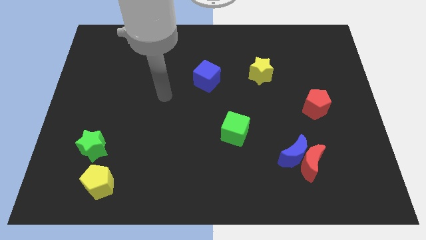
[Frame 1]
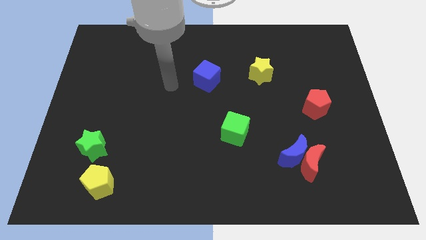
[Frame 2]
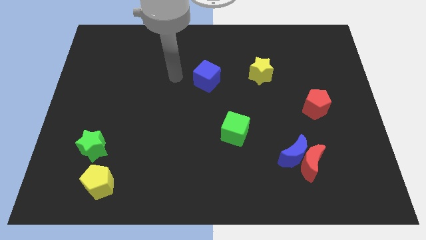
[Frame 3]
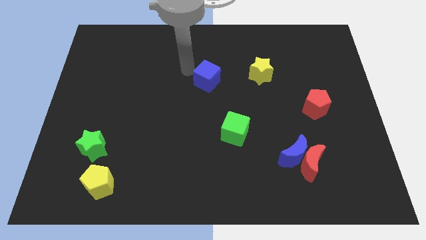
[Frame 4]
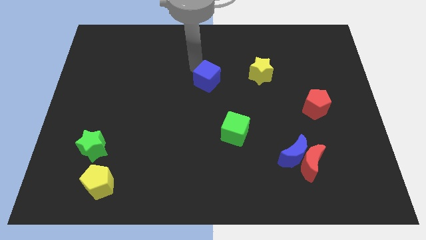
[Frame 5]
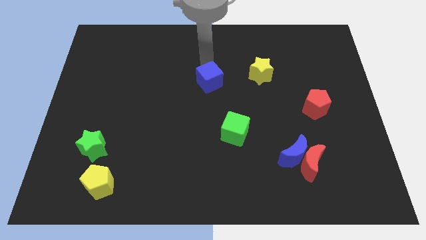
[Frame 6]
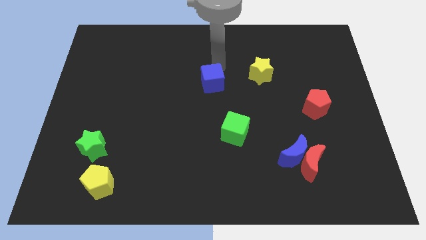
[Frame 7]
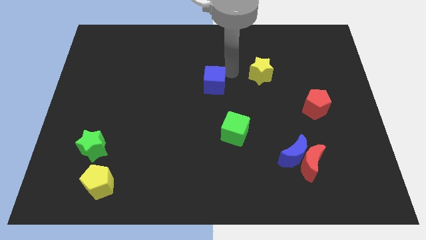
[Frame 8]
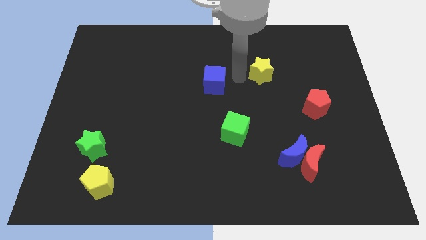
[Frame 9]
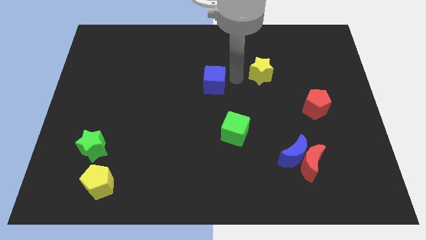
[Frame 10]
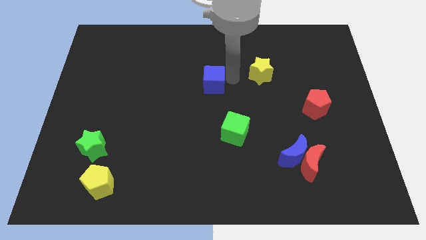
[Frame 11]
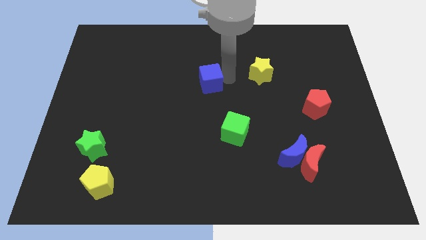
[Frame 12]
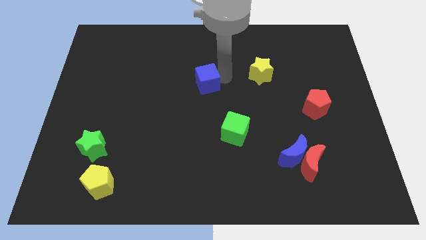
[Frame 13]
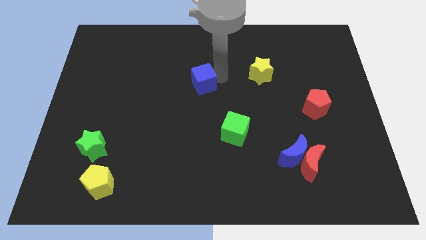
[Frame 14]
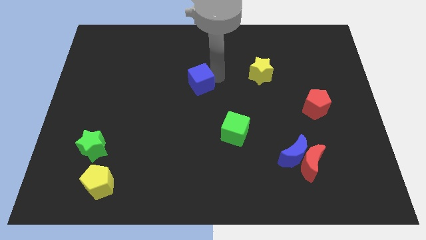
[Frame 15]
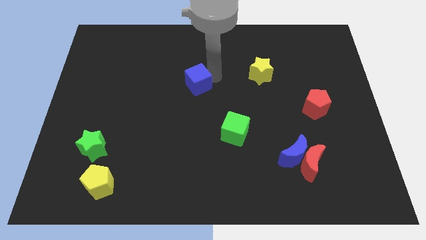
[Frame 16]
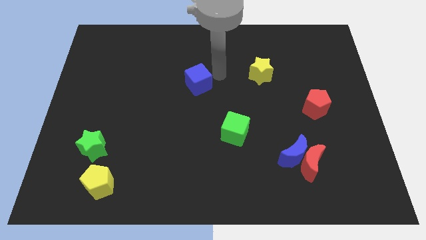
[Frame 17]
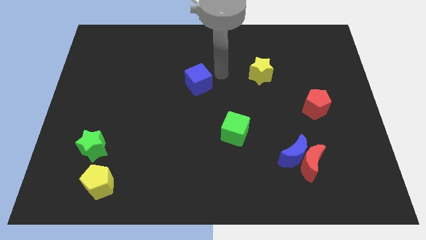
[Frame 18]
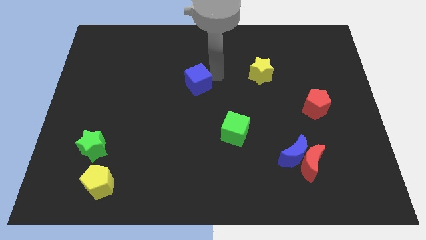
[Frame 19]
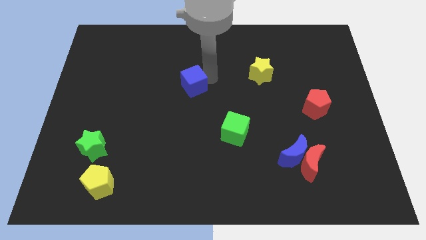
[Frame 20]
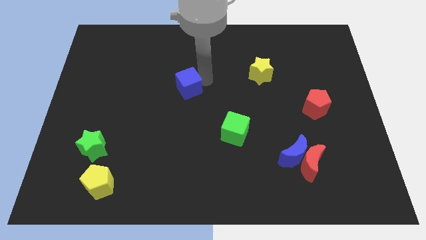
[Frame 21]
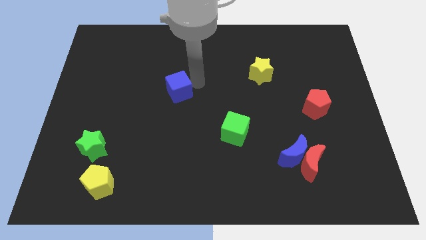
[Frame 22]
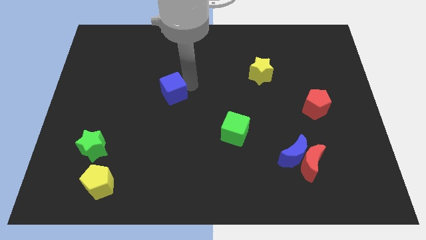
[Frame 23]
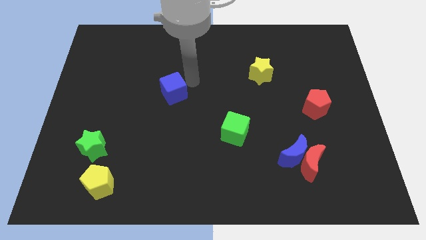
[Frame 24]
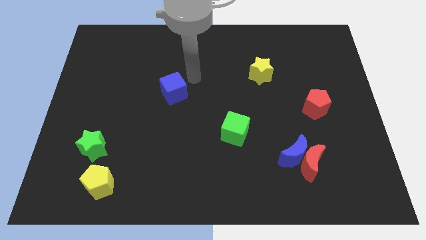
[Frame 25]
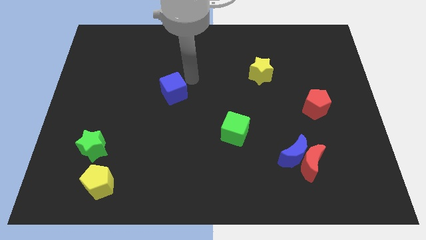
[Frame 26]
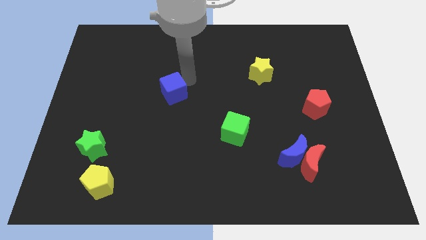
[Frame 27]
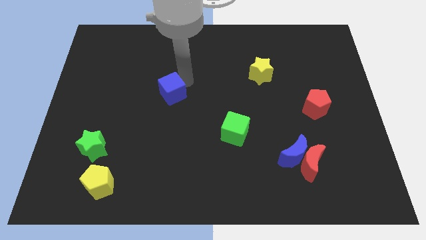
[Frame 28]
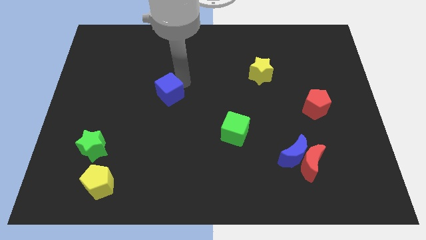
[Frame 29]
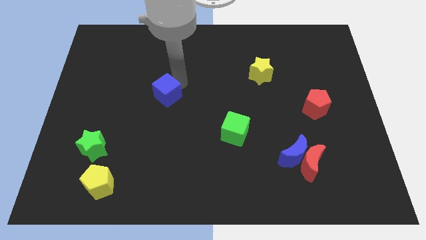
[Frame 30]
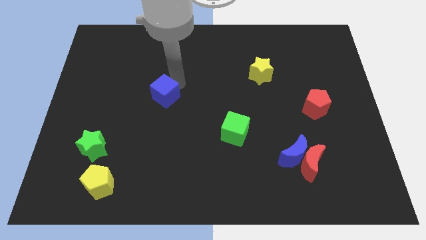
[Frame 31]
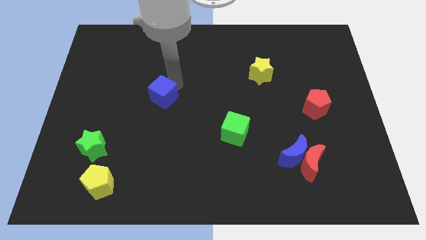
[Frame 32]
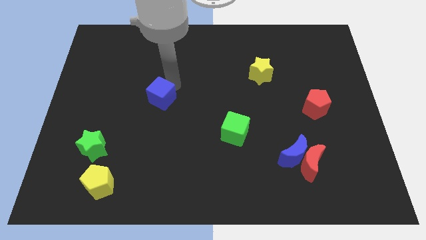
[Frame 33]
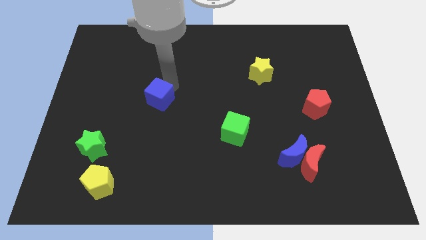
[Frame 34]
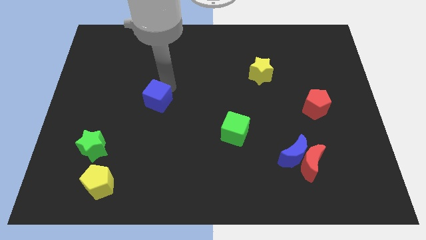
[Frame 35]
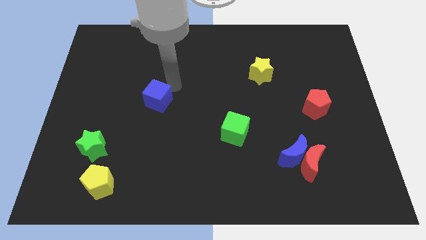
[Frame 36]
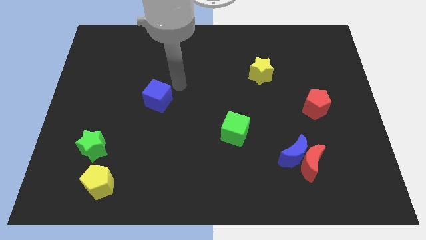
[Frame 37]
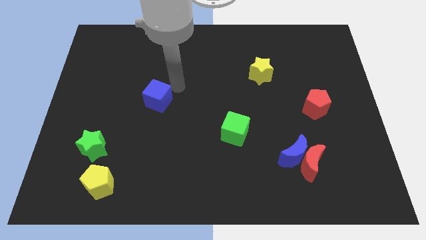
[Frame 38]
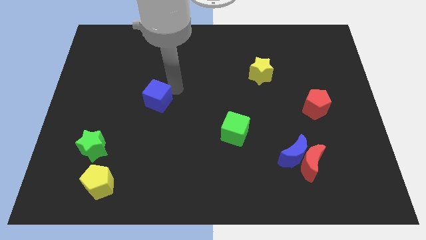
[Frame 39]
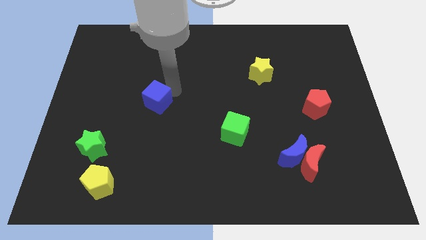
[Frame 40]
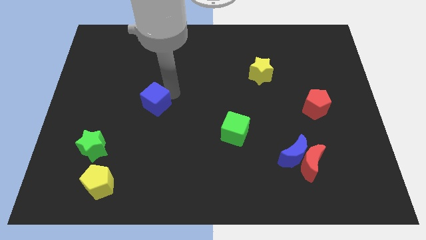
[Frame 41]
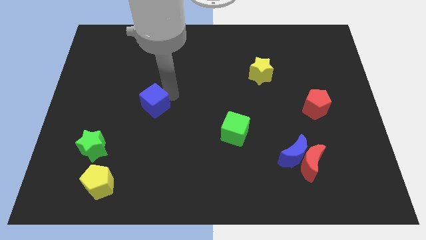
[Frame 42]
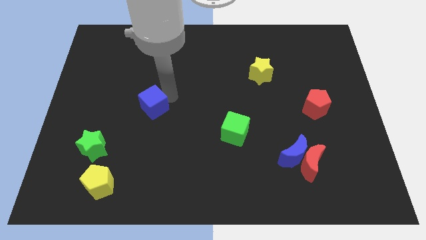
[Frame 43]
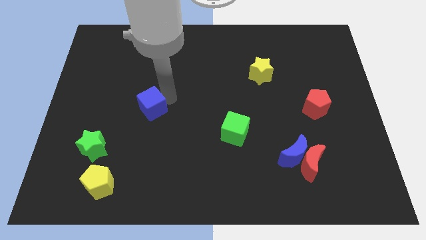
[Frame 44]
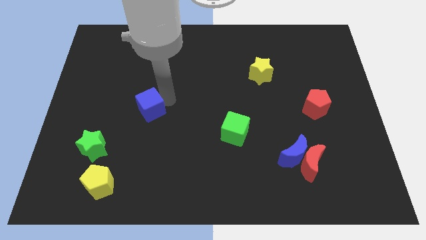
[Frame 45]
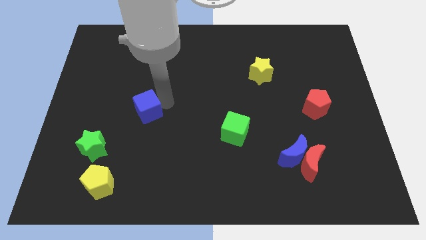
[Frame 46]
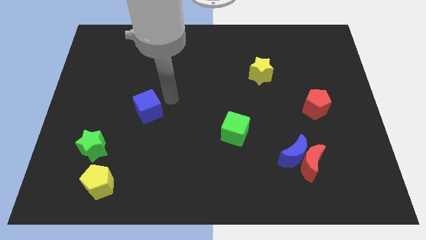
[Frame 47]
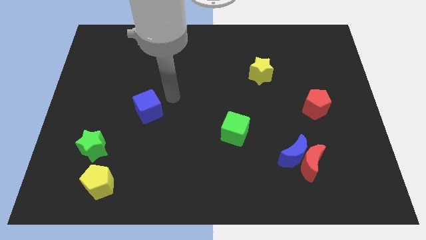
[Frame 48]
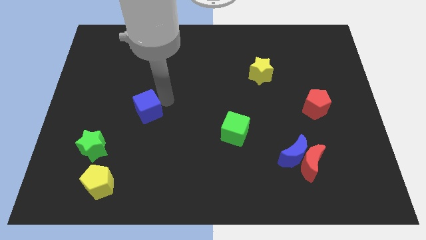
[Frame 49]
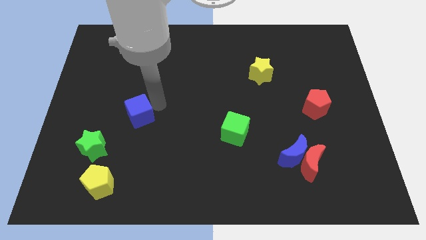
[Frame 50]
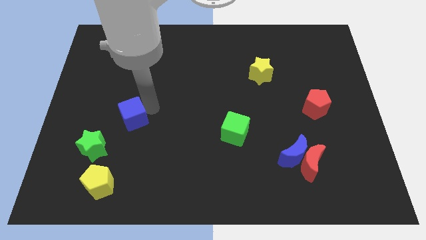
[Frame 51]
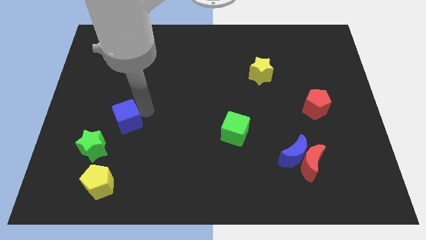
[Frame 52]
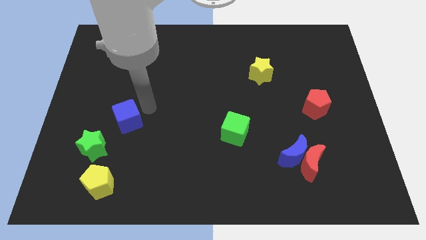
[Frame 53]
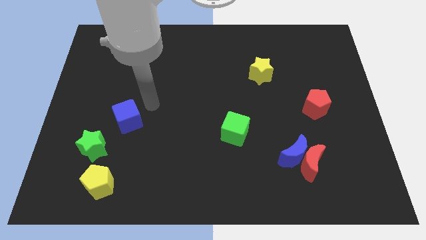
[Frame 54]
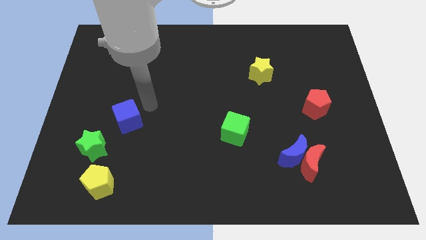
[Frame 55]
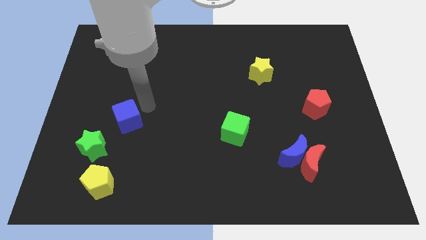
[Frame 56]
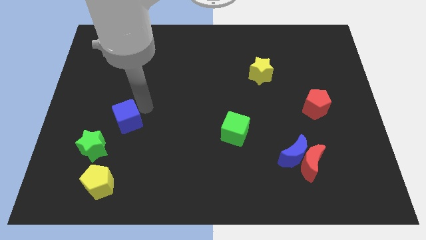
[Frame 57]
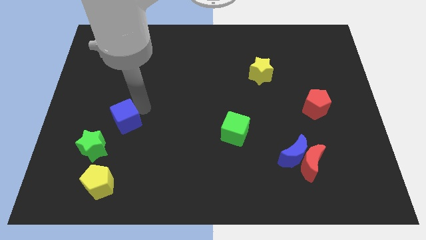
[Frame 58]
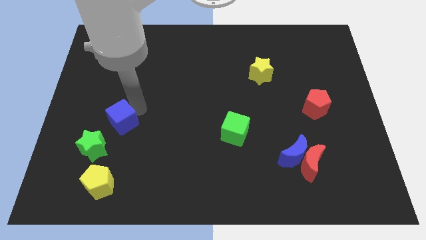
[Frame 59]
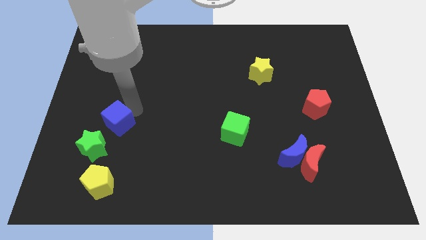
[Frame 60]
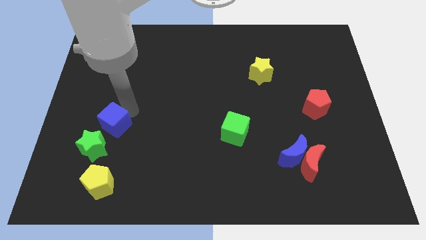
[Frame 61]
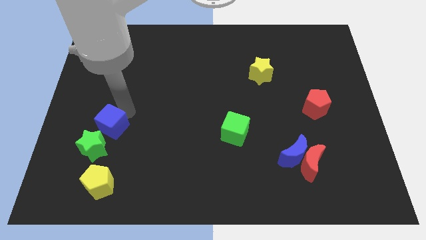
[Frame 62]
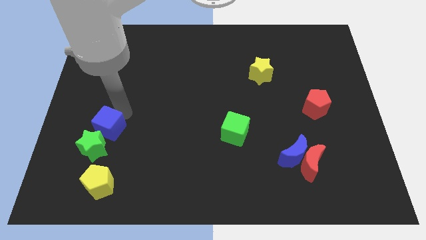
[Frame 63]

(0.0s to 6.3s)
slide the blue cube close to the green star

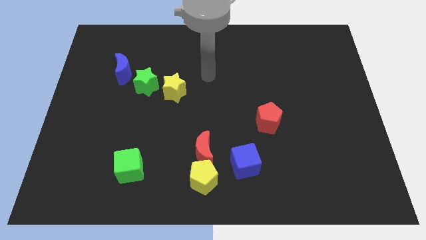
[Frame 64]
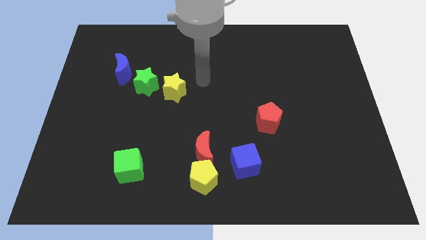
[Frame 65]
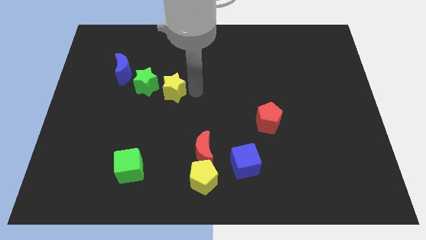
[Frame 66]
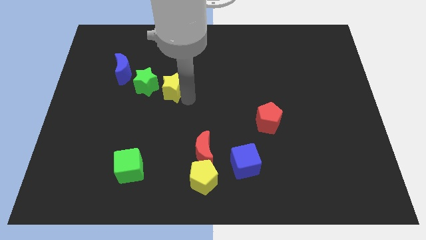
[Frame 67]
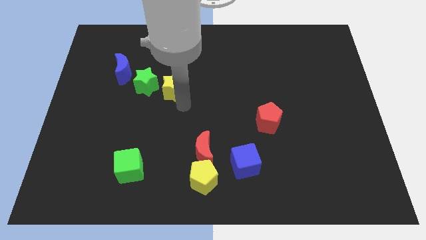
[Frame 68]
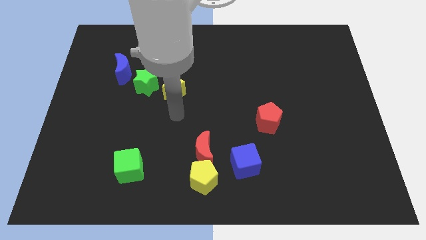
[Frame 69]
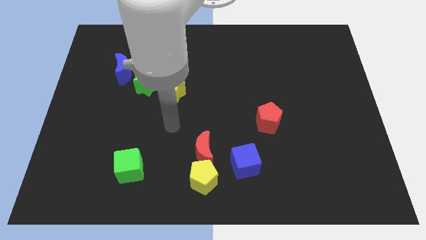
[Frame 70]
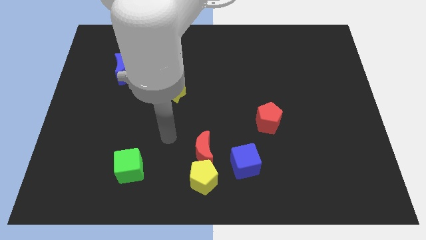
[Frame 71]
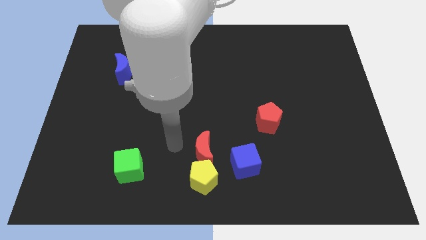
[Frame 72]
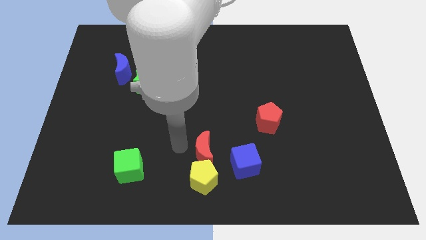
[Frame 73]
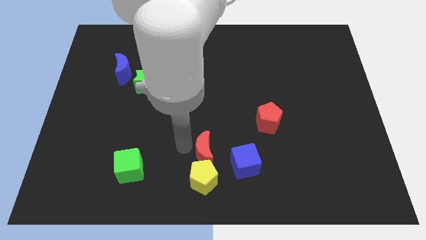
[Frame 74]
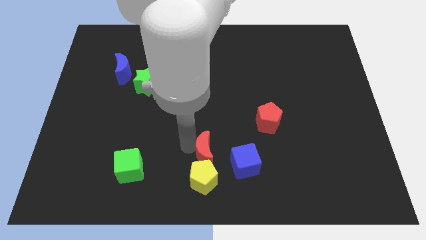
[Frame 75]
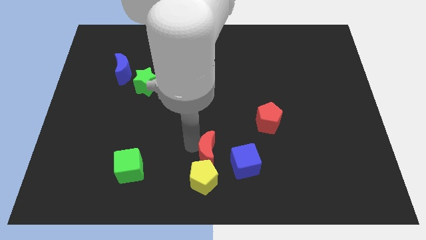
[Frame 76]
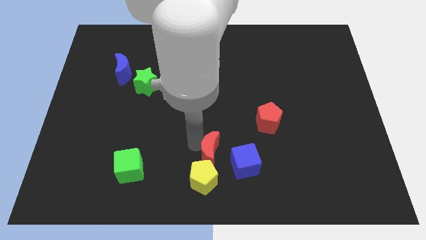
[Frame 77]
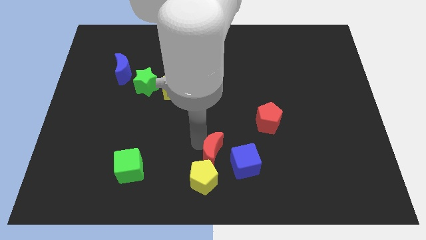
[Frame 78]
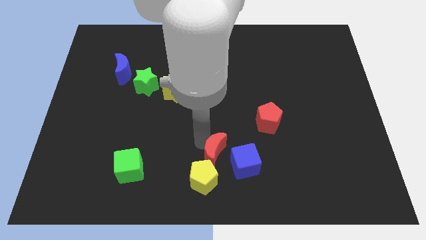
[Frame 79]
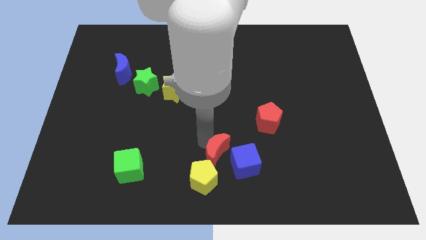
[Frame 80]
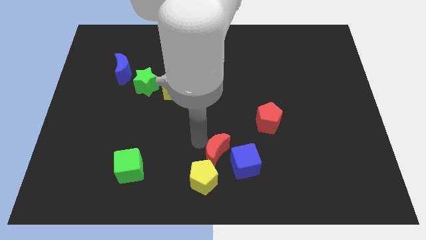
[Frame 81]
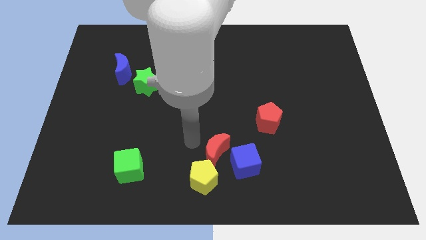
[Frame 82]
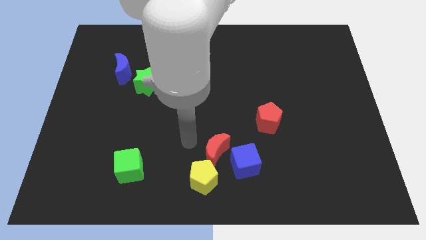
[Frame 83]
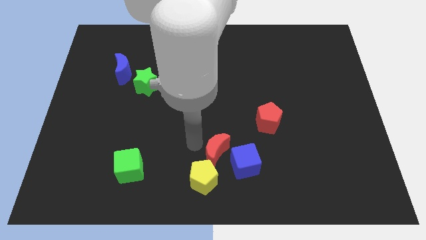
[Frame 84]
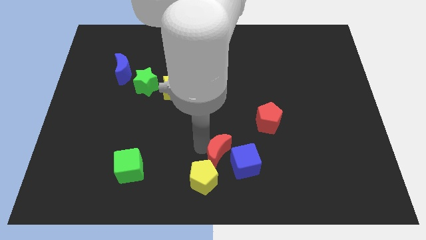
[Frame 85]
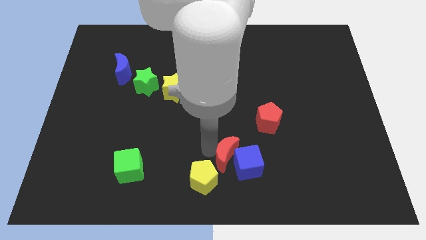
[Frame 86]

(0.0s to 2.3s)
slide the red moon to the blue cube
